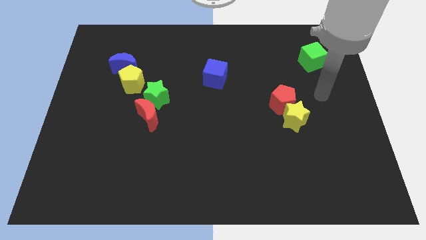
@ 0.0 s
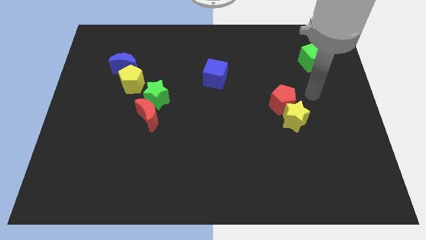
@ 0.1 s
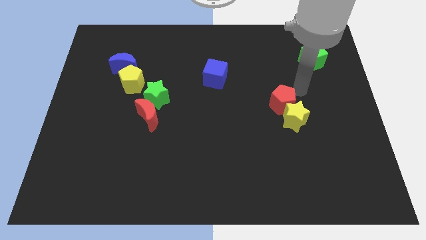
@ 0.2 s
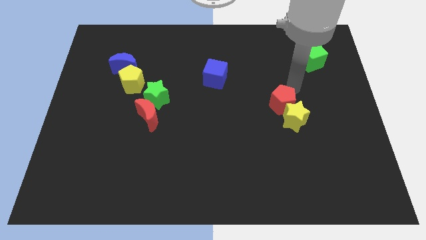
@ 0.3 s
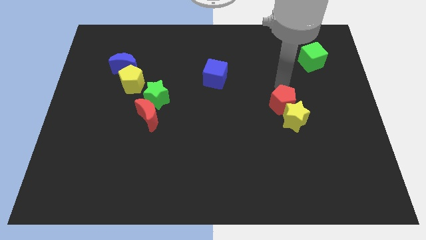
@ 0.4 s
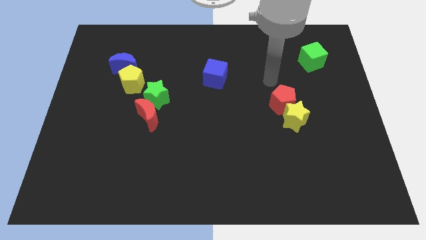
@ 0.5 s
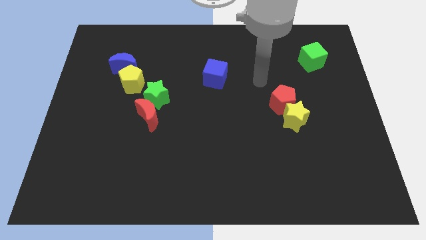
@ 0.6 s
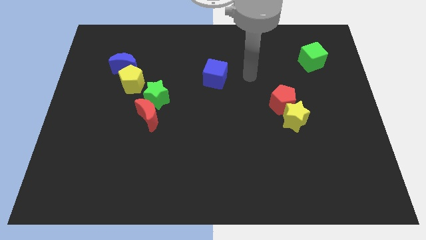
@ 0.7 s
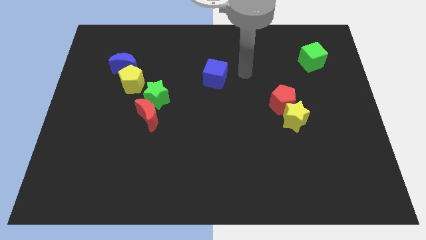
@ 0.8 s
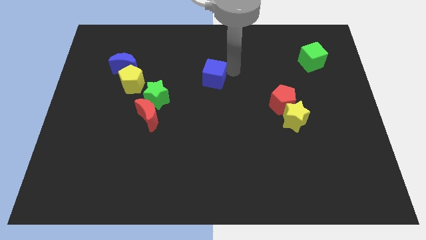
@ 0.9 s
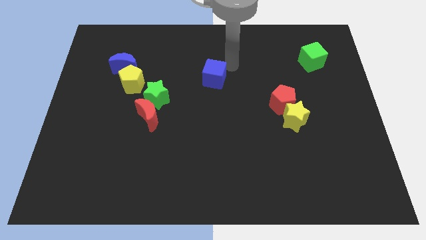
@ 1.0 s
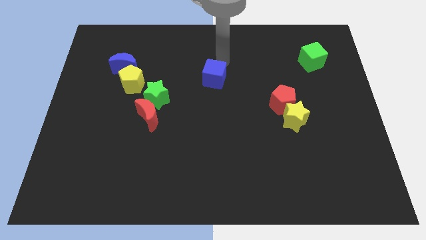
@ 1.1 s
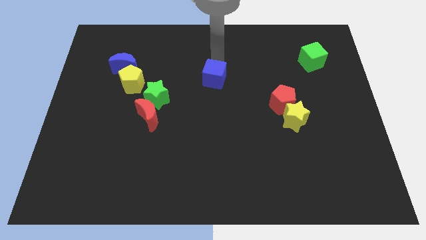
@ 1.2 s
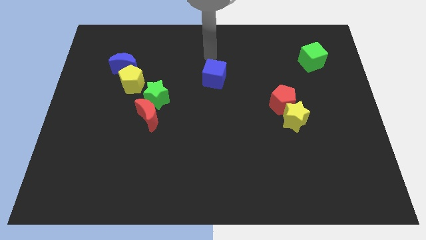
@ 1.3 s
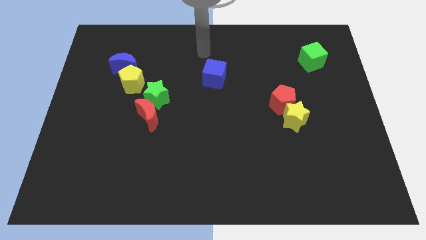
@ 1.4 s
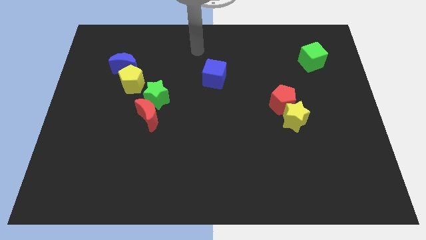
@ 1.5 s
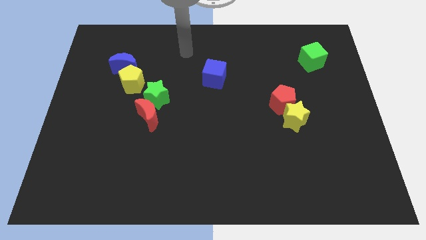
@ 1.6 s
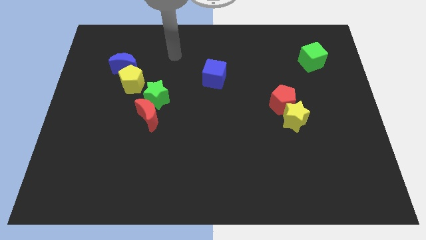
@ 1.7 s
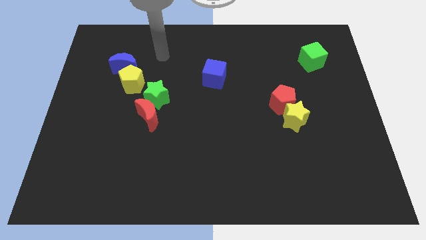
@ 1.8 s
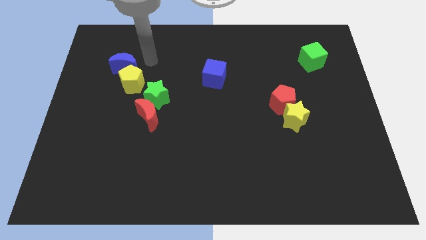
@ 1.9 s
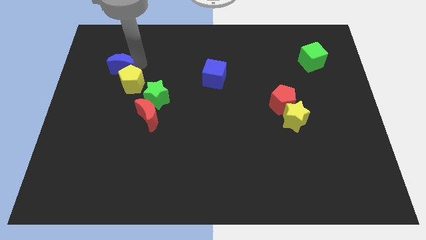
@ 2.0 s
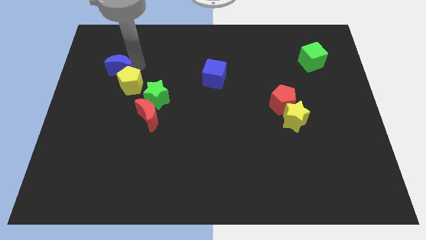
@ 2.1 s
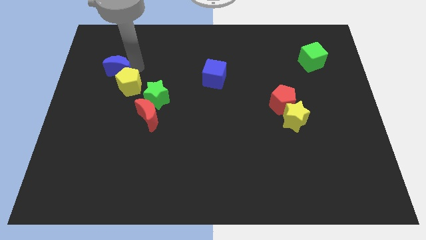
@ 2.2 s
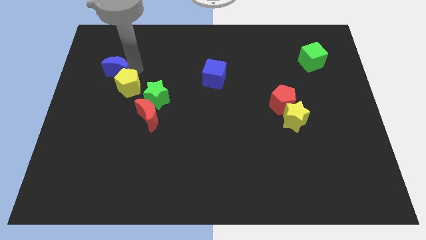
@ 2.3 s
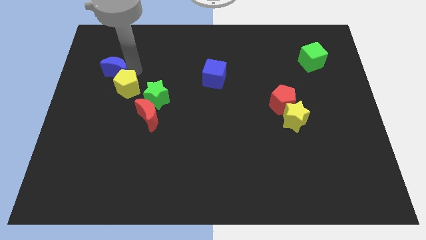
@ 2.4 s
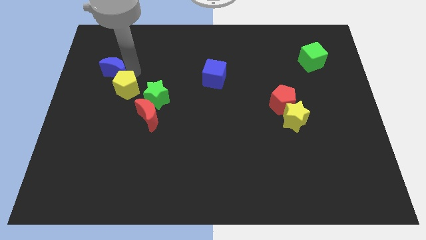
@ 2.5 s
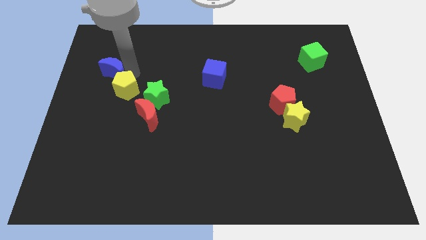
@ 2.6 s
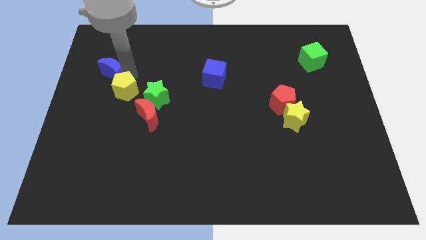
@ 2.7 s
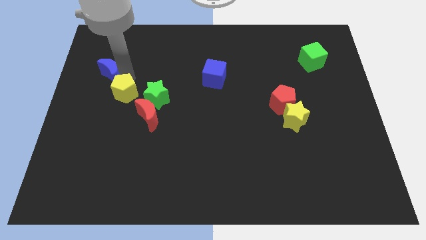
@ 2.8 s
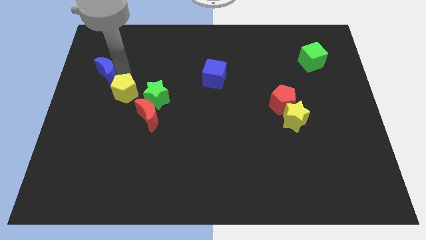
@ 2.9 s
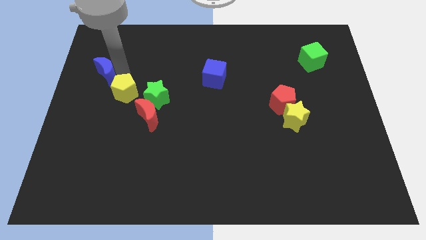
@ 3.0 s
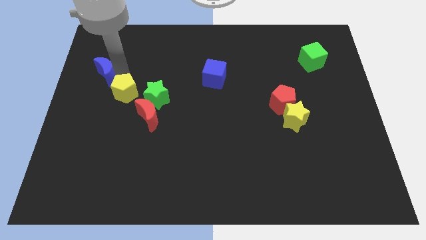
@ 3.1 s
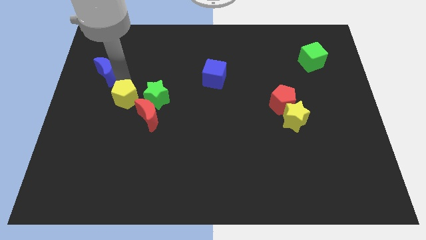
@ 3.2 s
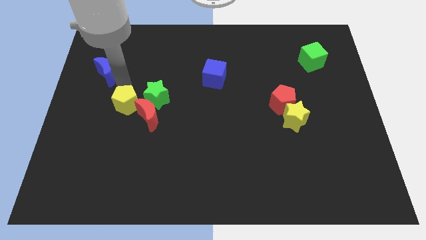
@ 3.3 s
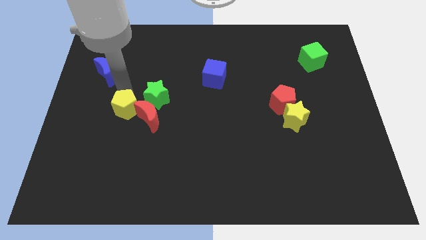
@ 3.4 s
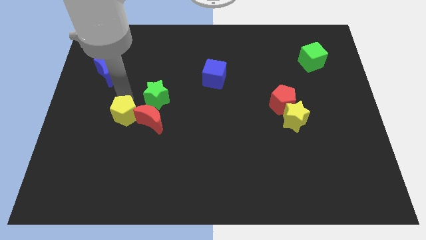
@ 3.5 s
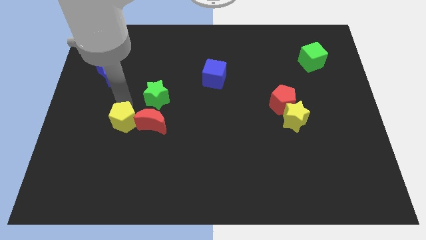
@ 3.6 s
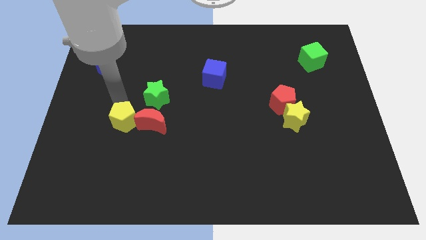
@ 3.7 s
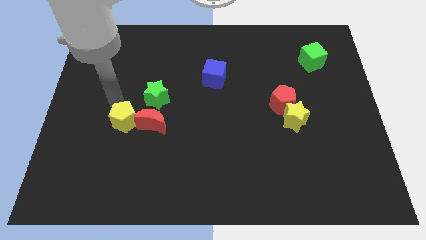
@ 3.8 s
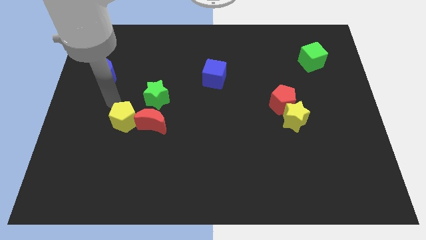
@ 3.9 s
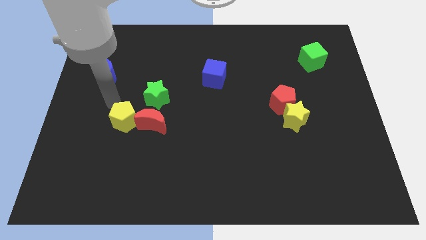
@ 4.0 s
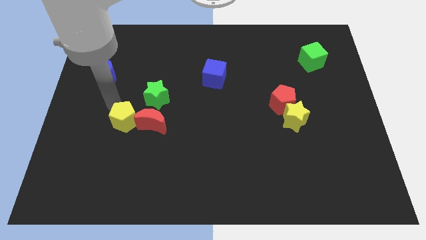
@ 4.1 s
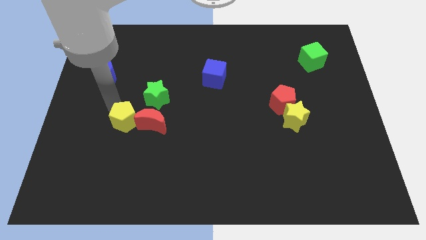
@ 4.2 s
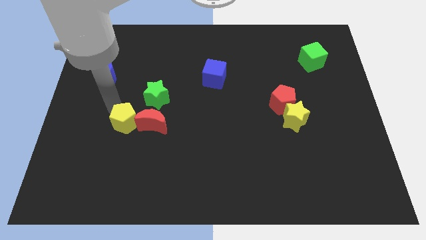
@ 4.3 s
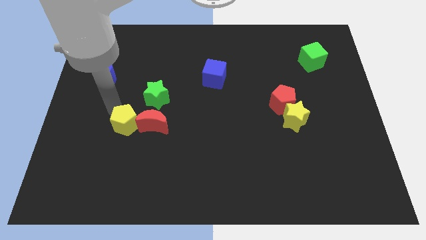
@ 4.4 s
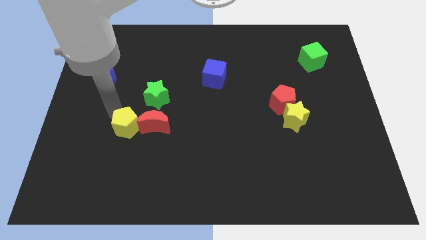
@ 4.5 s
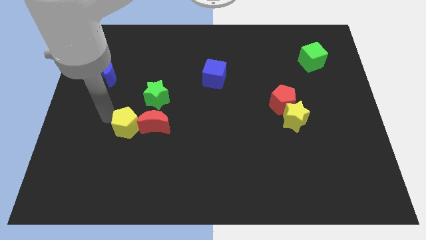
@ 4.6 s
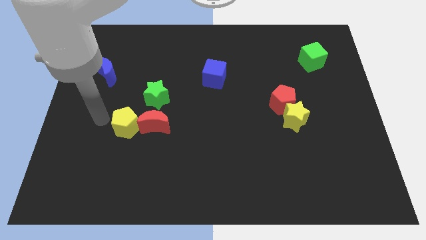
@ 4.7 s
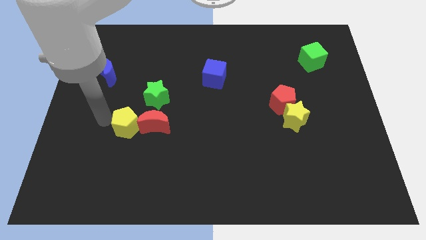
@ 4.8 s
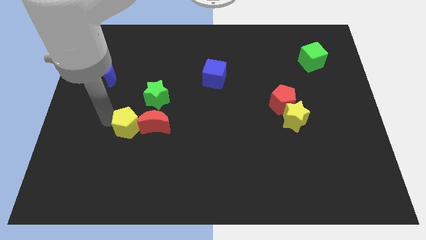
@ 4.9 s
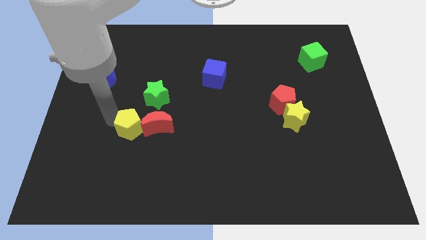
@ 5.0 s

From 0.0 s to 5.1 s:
push the yellow pentagon downwards and right diagonally a little

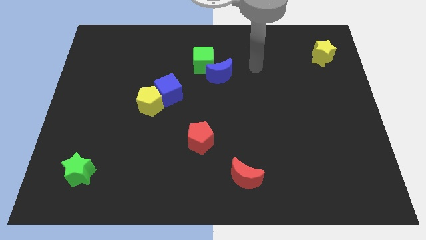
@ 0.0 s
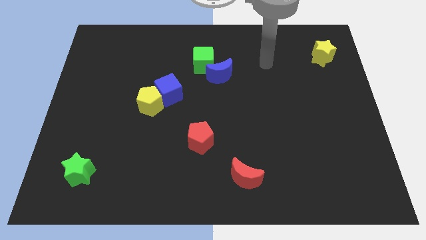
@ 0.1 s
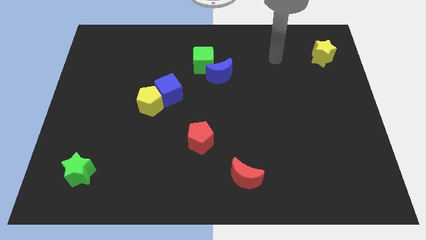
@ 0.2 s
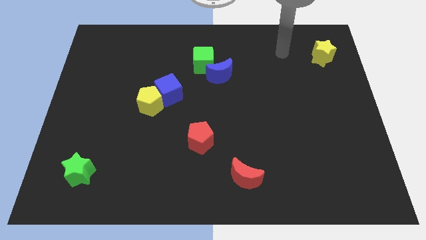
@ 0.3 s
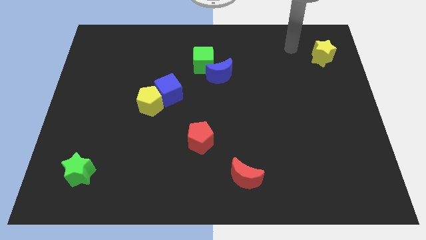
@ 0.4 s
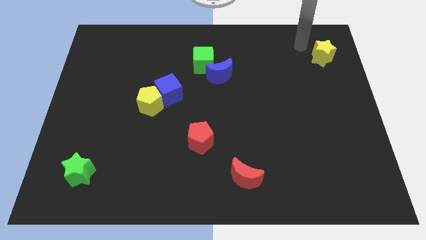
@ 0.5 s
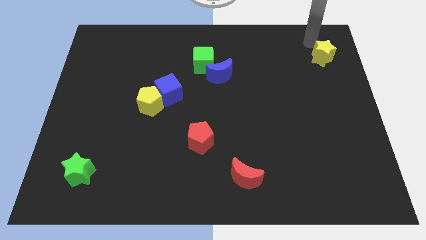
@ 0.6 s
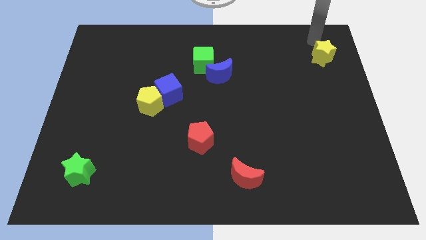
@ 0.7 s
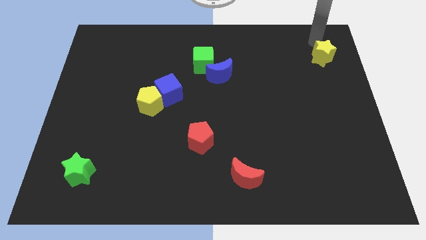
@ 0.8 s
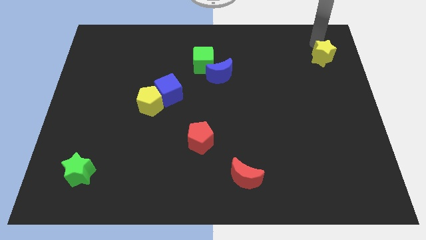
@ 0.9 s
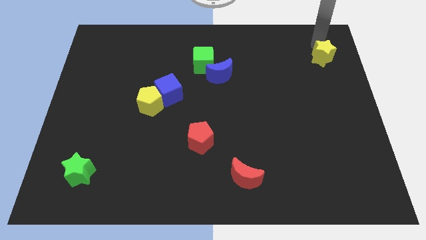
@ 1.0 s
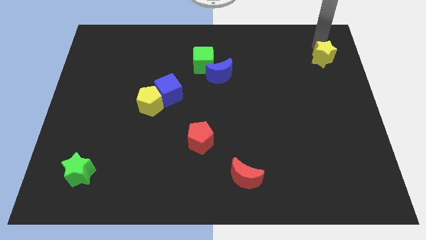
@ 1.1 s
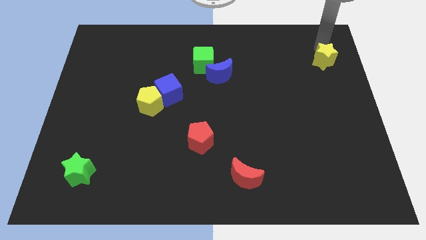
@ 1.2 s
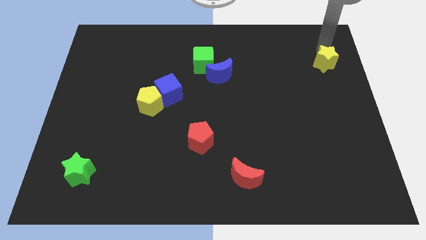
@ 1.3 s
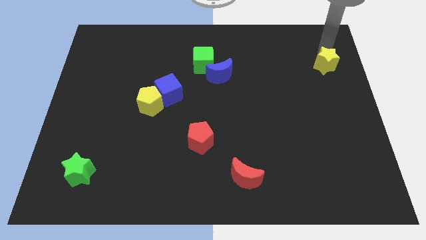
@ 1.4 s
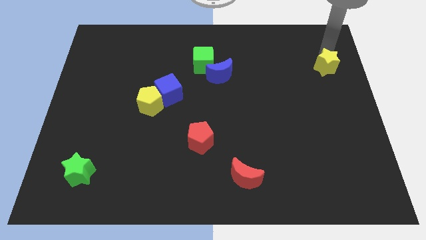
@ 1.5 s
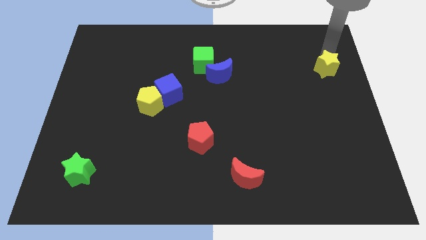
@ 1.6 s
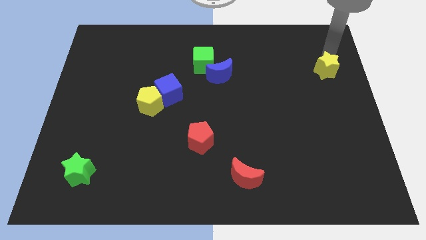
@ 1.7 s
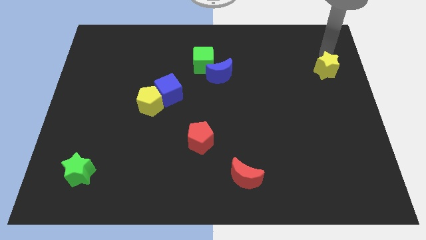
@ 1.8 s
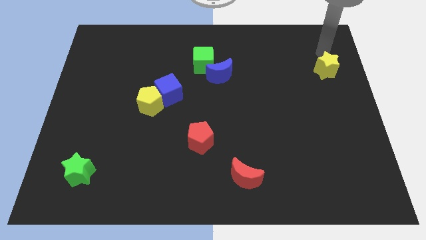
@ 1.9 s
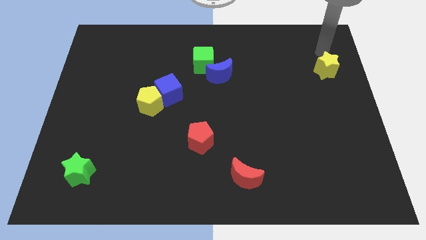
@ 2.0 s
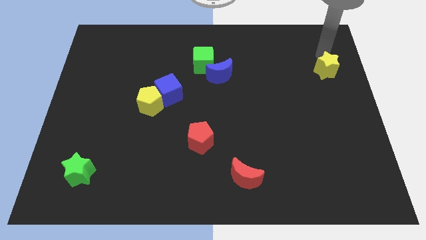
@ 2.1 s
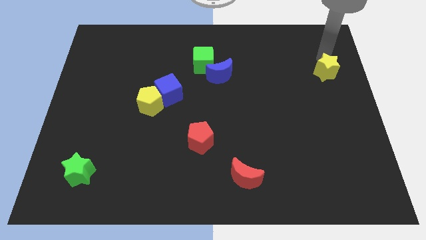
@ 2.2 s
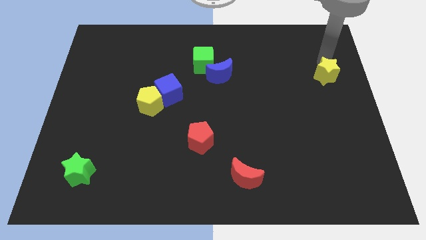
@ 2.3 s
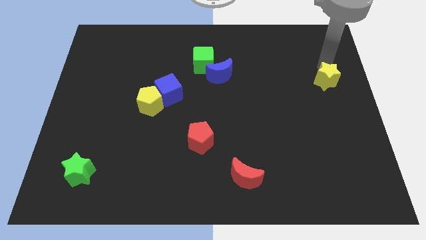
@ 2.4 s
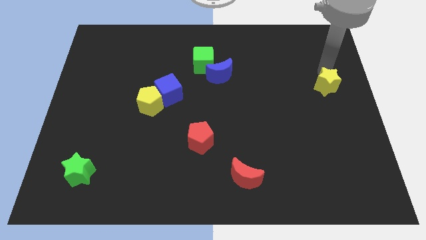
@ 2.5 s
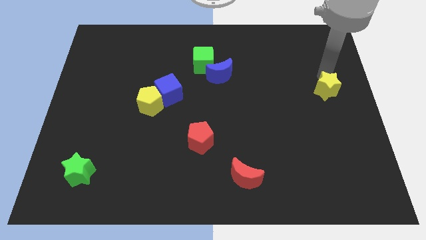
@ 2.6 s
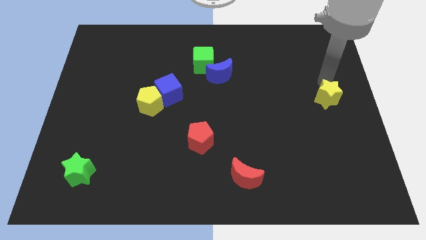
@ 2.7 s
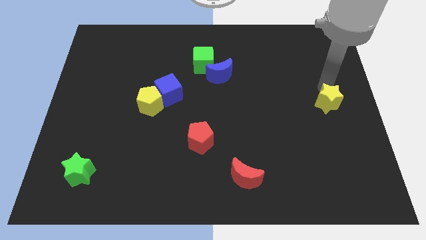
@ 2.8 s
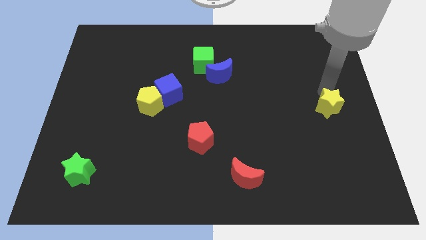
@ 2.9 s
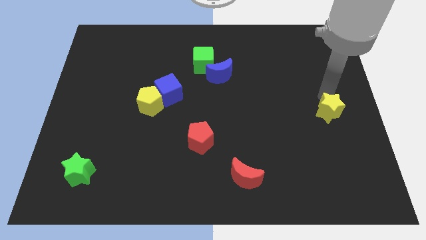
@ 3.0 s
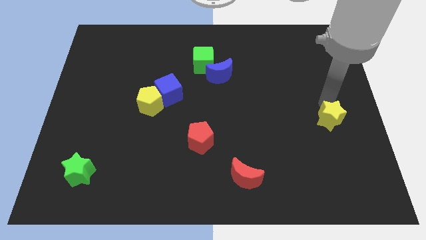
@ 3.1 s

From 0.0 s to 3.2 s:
slide the yellow star downwards
